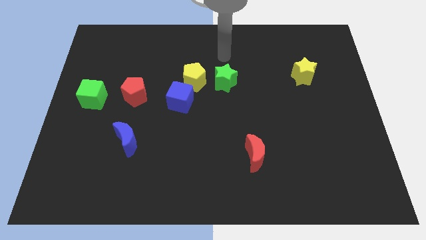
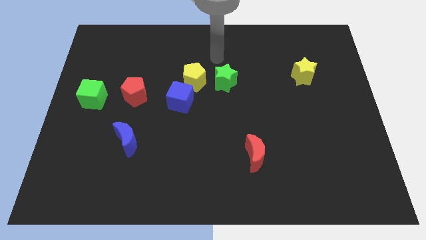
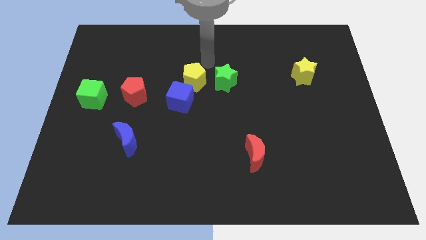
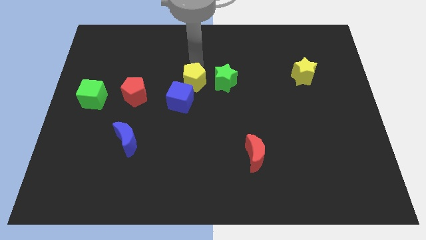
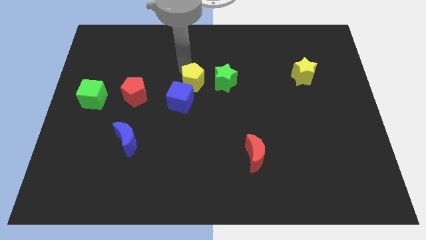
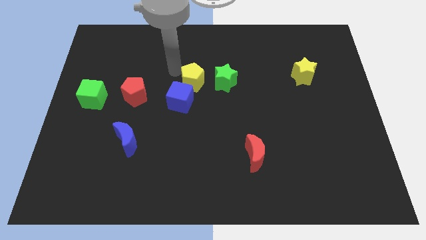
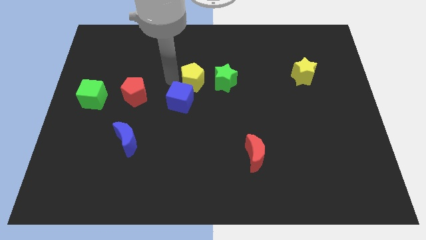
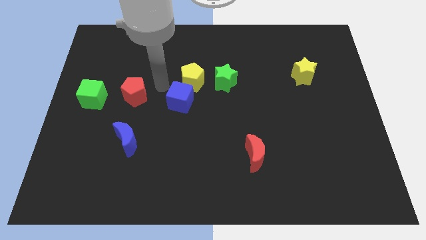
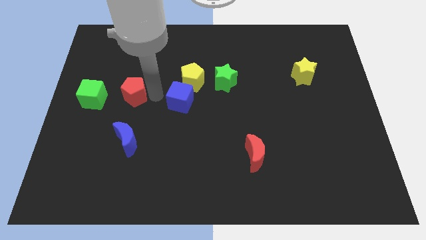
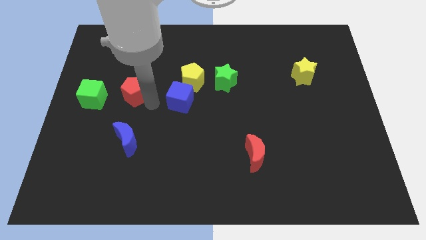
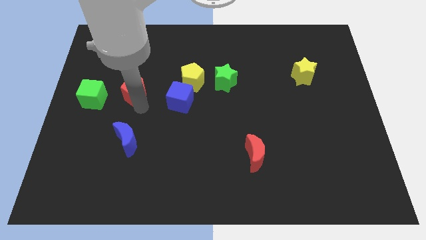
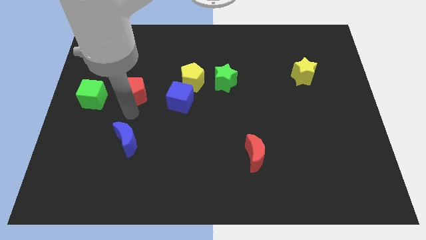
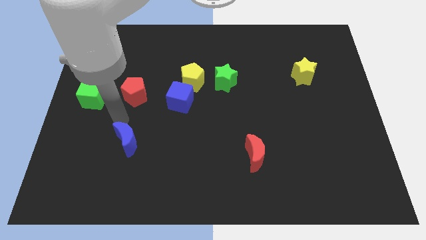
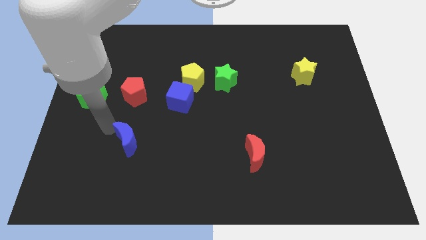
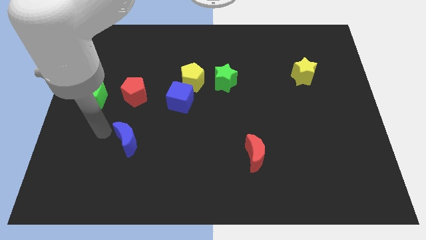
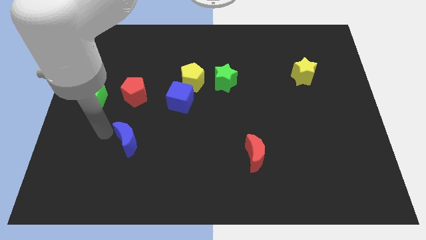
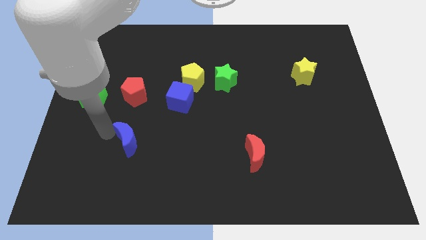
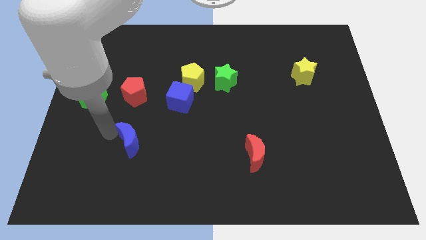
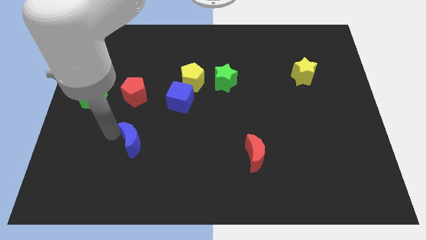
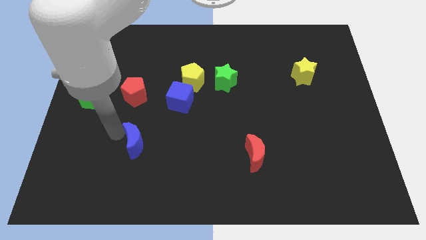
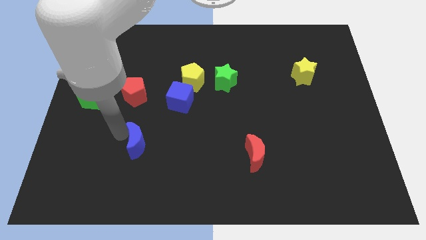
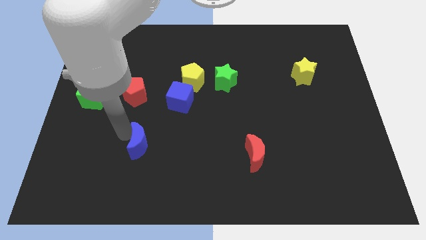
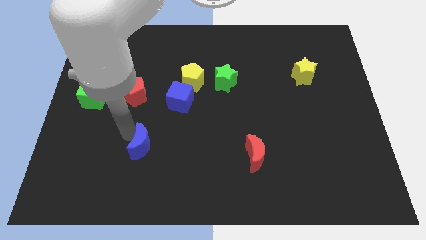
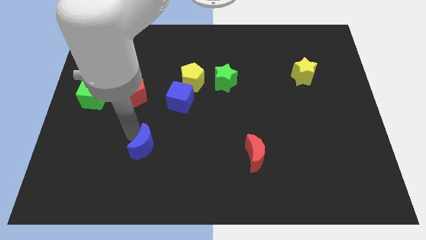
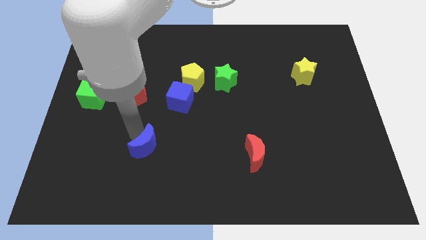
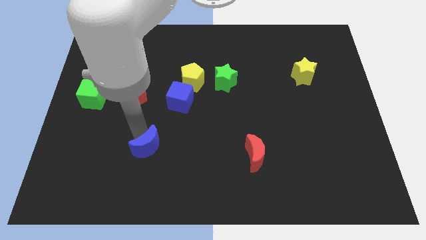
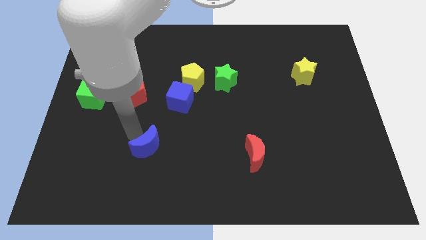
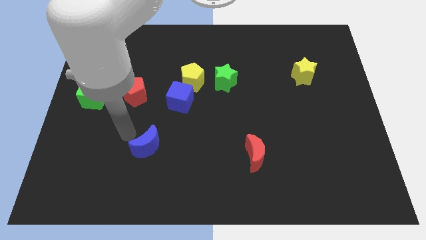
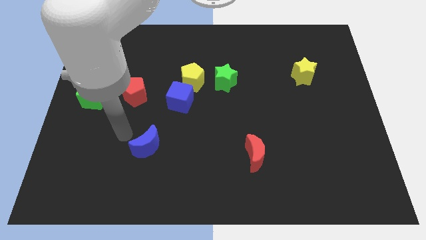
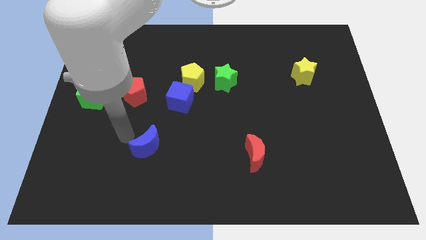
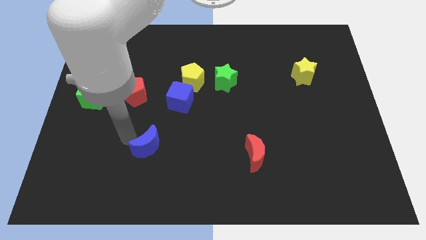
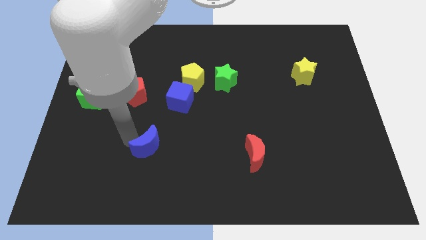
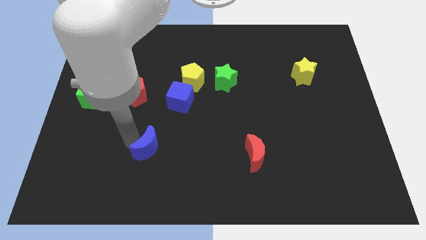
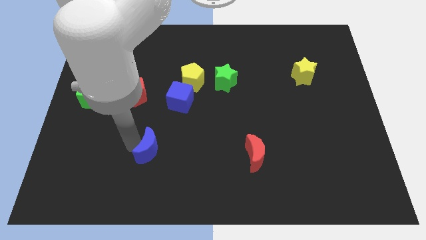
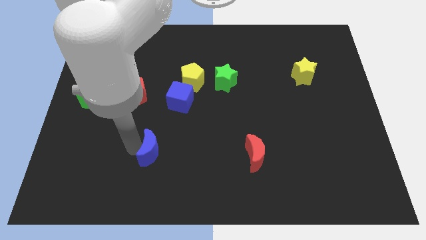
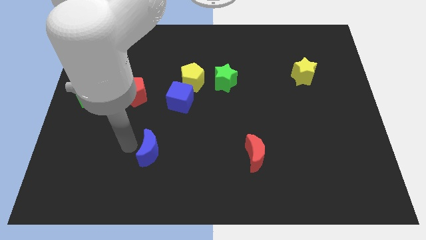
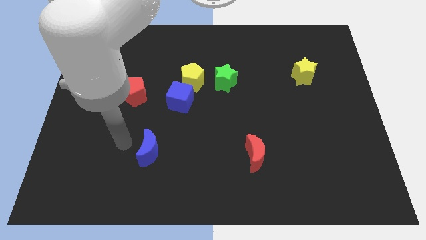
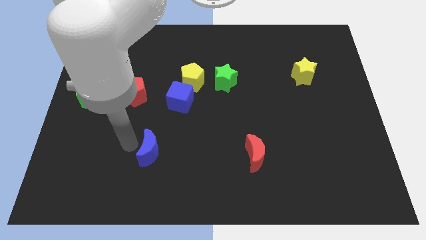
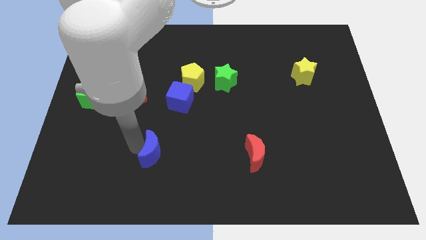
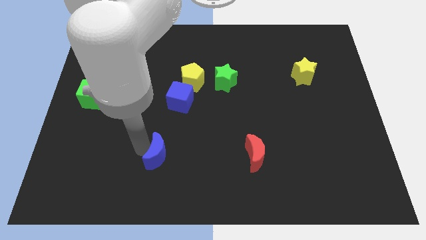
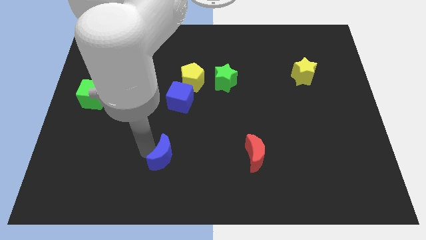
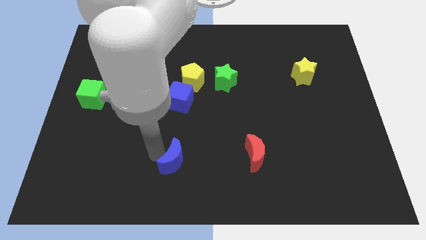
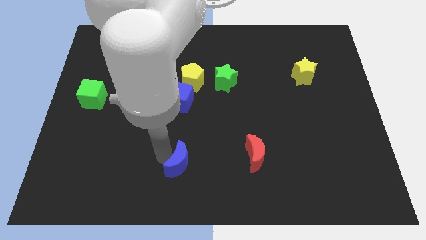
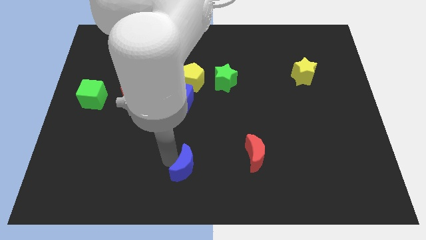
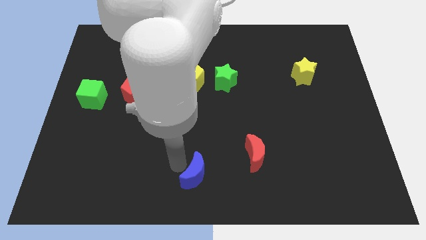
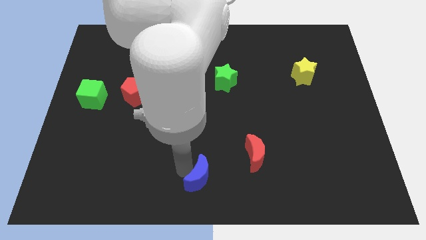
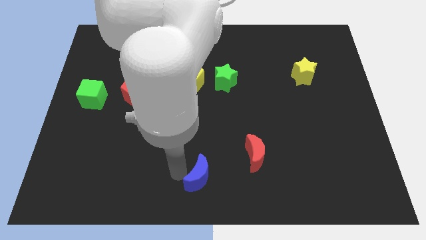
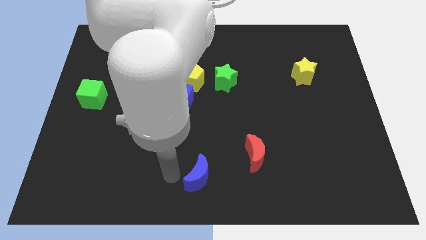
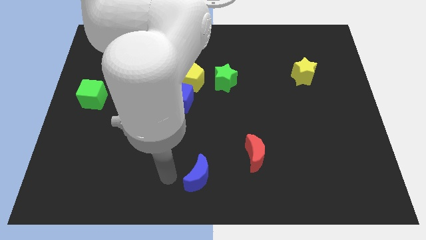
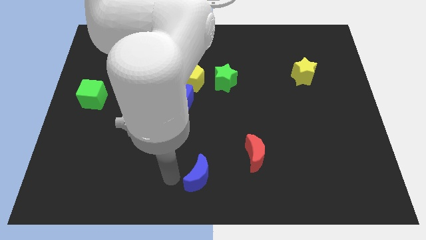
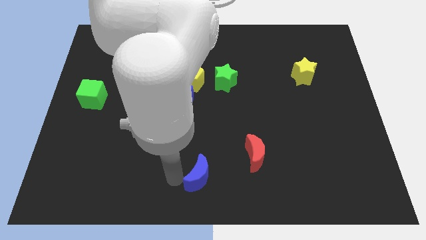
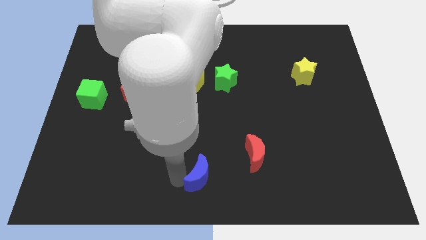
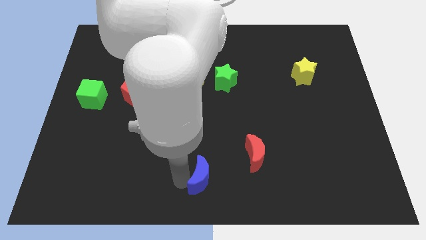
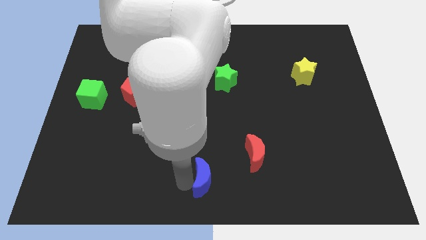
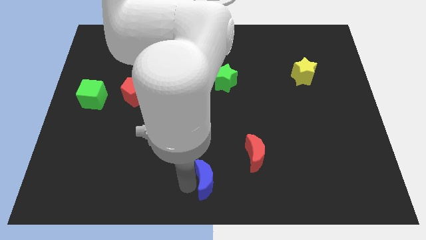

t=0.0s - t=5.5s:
slide the blue moon to the bottom left of the red moon

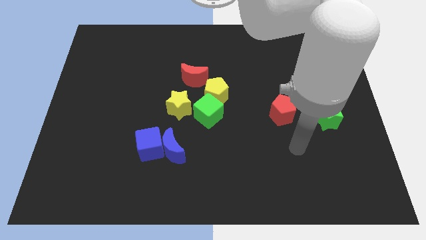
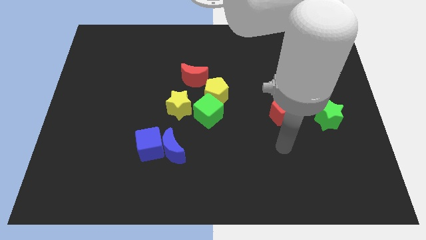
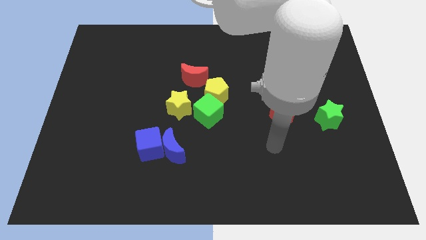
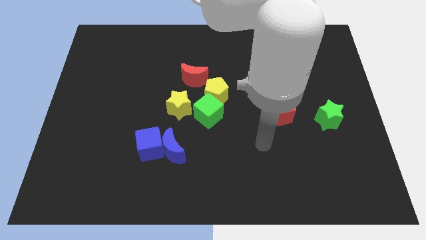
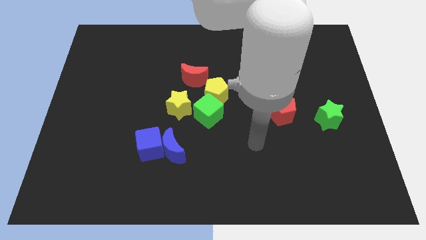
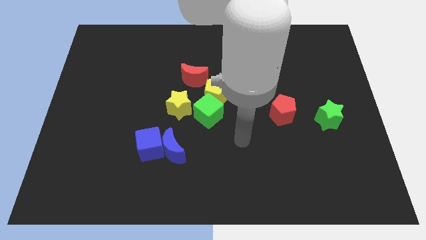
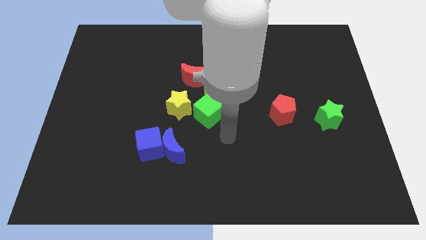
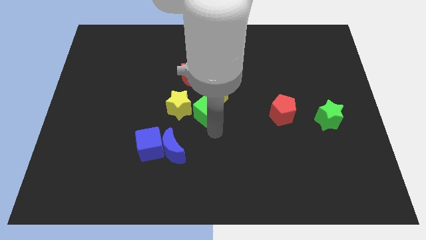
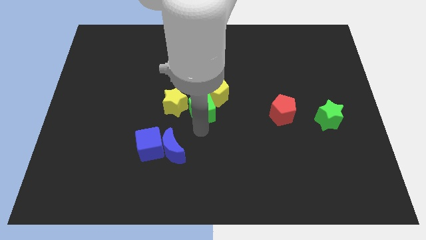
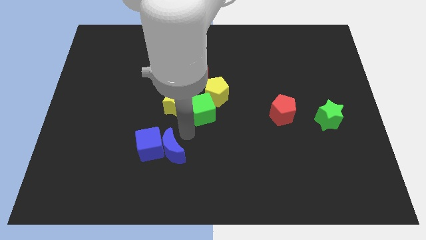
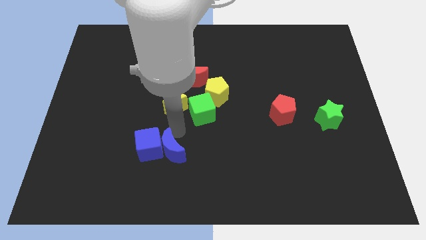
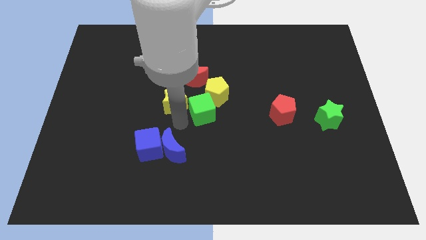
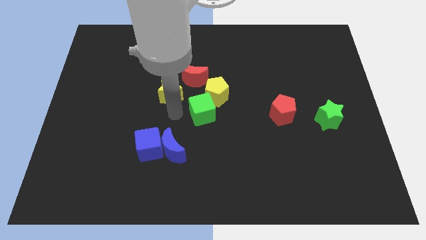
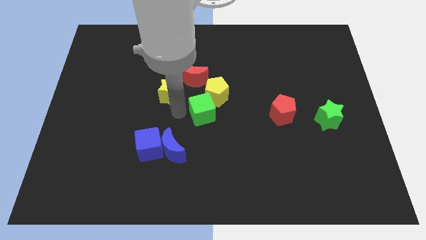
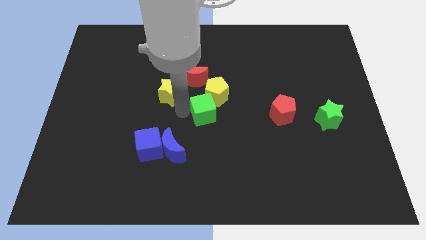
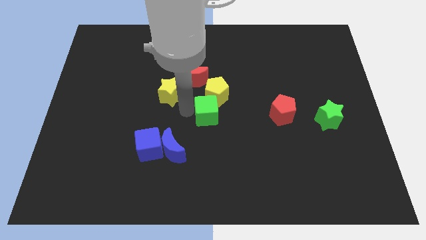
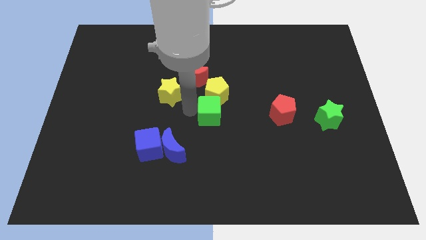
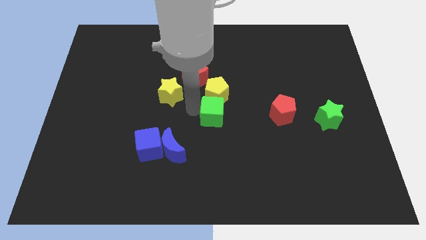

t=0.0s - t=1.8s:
move the green cube to the bottom right of the yellow pentagon
